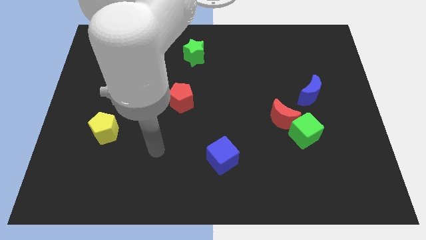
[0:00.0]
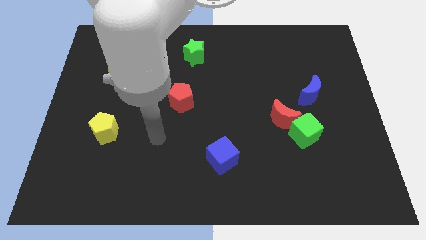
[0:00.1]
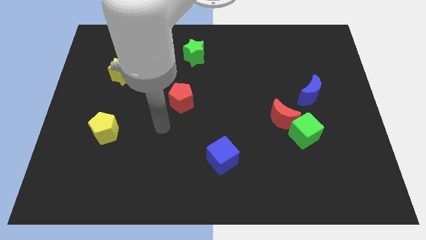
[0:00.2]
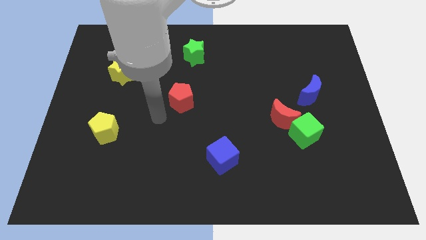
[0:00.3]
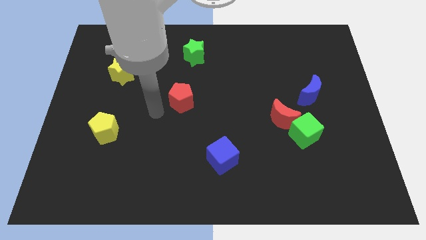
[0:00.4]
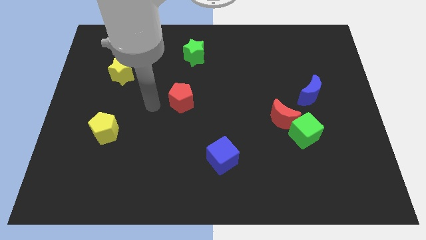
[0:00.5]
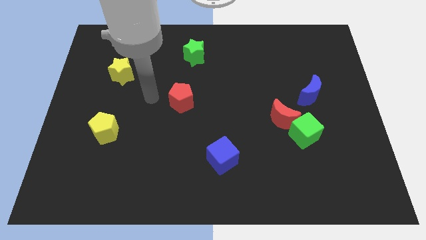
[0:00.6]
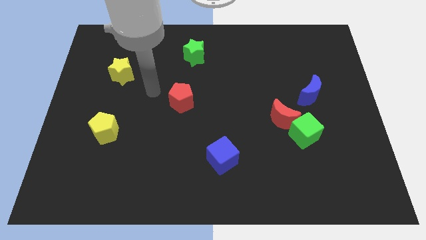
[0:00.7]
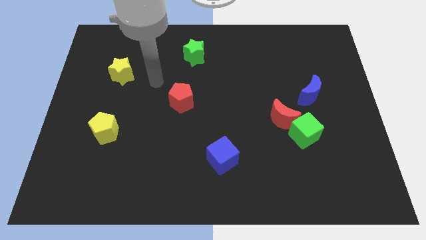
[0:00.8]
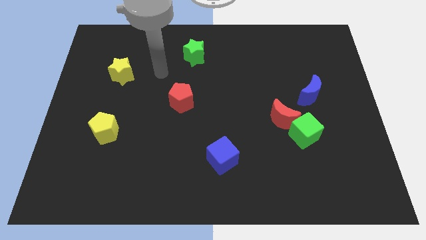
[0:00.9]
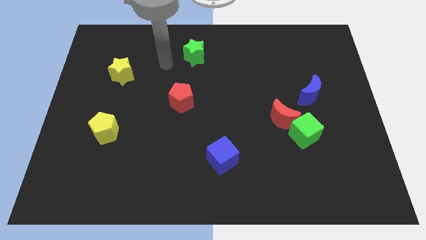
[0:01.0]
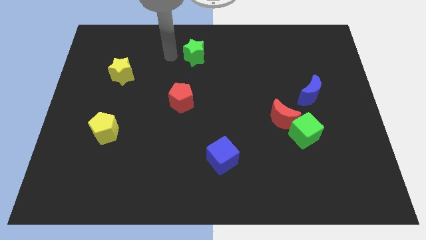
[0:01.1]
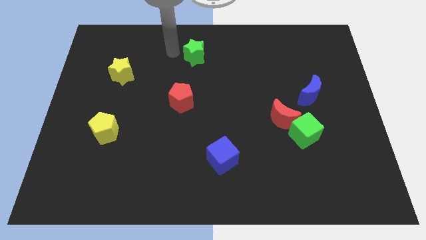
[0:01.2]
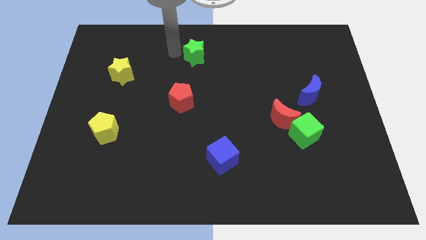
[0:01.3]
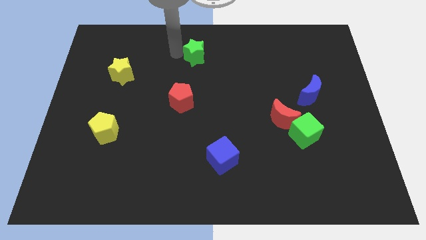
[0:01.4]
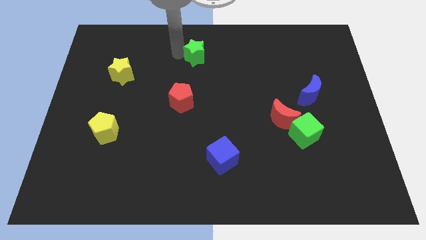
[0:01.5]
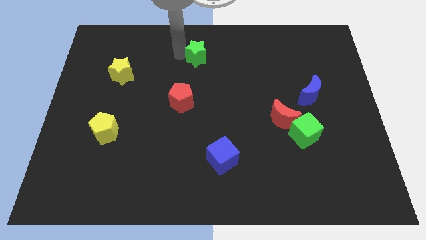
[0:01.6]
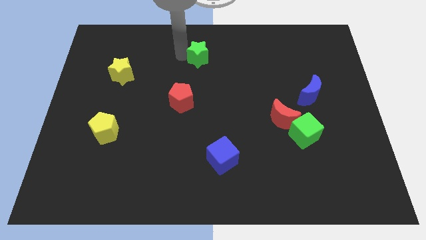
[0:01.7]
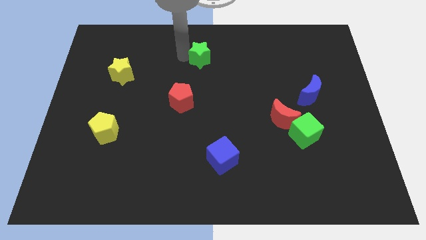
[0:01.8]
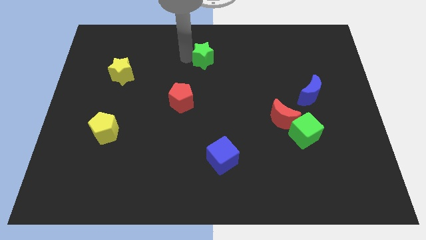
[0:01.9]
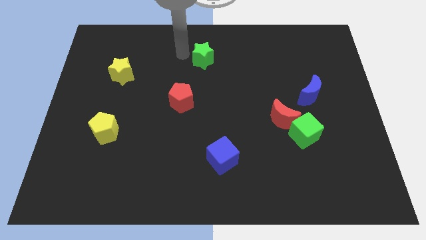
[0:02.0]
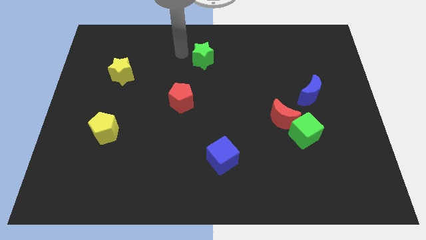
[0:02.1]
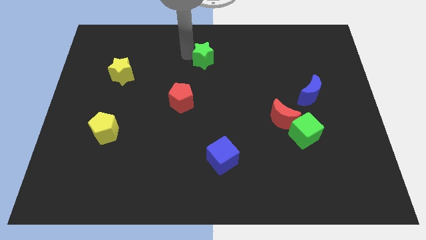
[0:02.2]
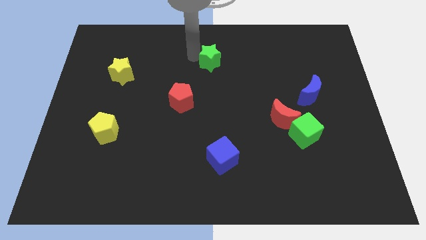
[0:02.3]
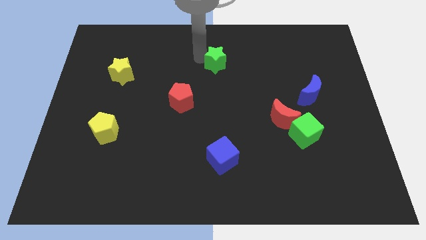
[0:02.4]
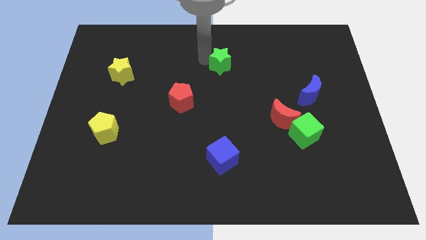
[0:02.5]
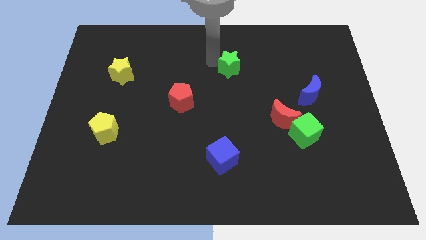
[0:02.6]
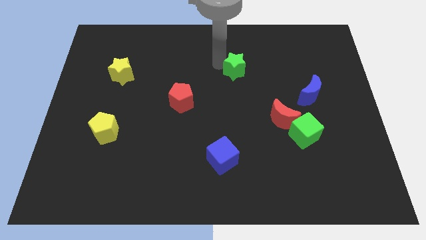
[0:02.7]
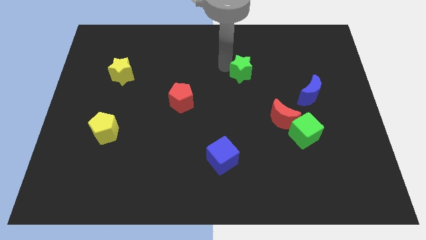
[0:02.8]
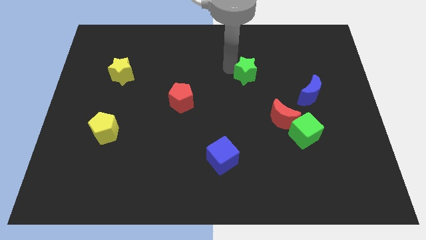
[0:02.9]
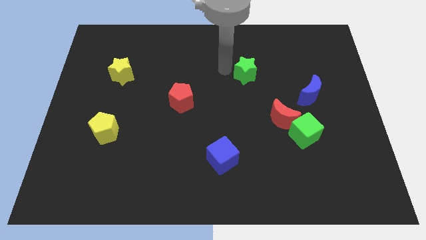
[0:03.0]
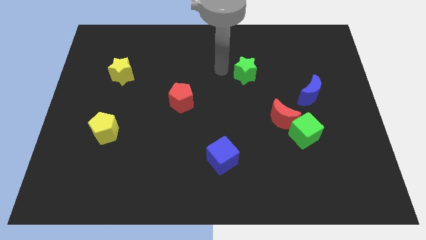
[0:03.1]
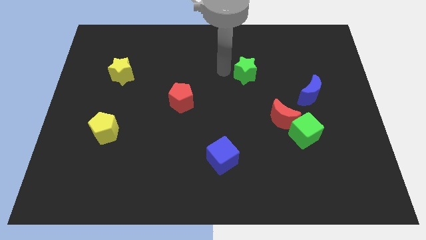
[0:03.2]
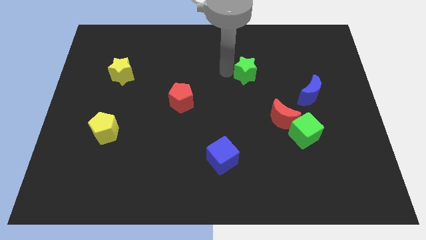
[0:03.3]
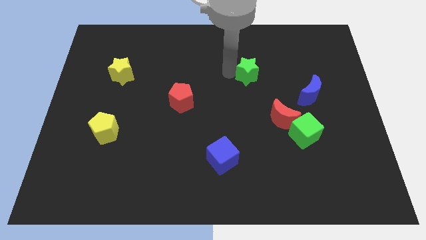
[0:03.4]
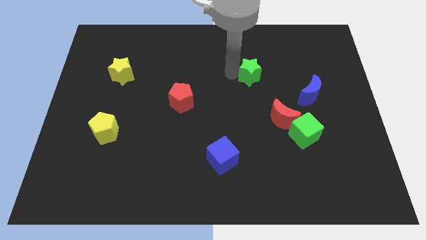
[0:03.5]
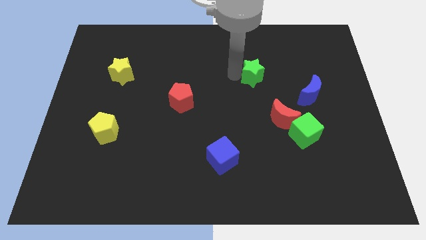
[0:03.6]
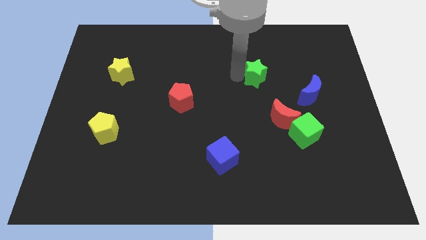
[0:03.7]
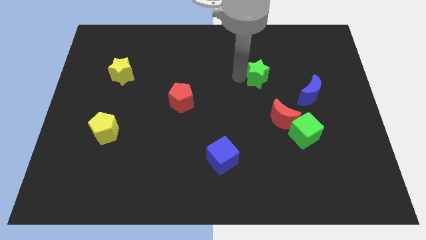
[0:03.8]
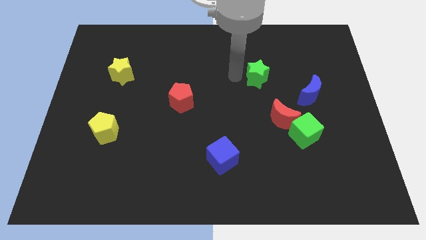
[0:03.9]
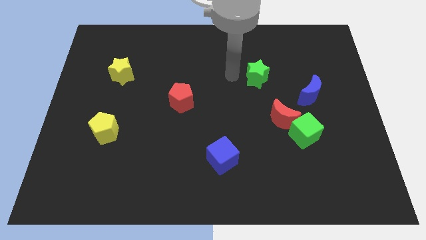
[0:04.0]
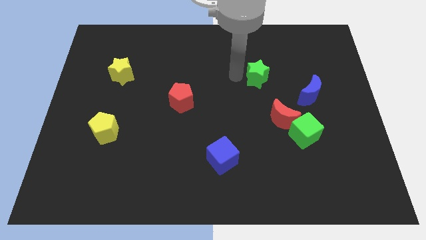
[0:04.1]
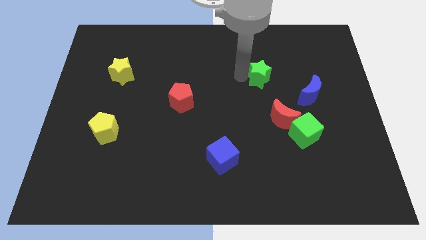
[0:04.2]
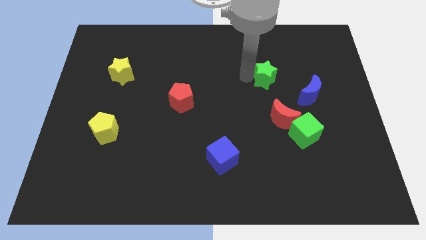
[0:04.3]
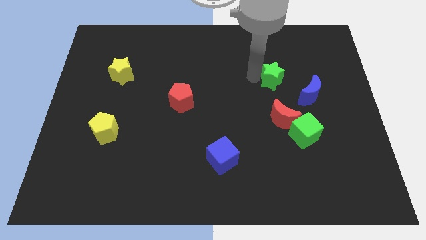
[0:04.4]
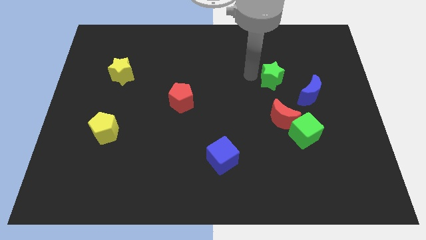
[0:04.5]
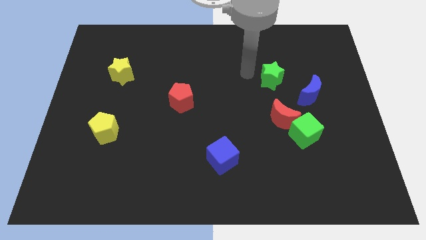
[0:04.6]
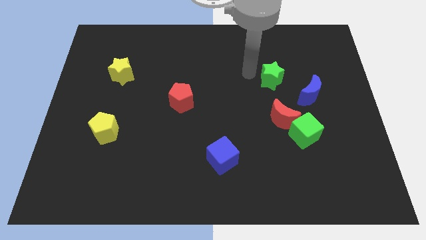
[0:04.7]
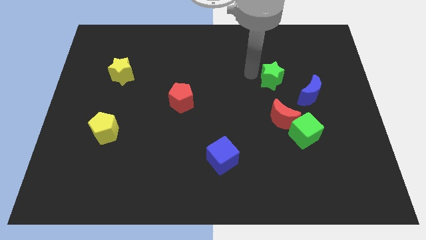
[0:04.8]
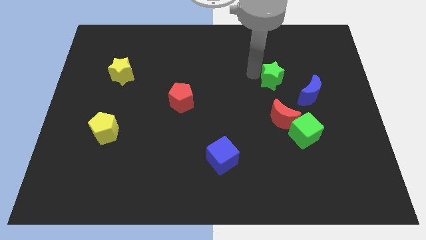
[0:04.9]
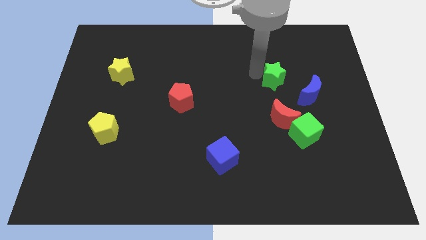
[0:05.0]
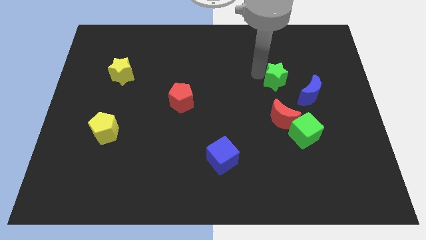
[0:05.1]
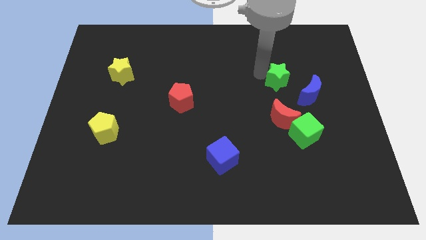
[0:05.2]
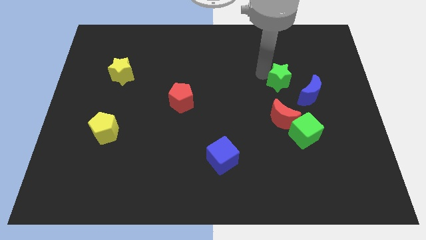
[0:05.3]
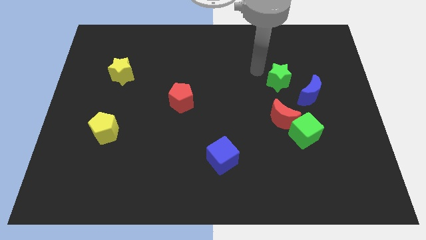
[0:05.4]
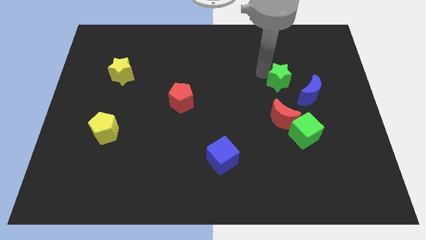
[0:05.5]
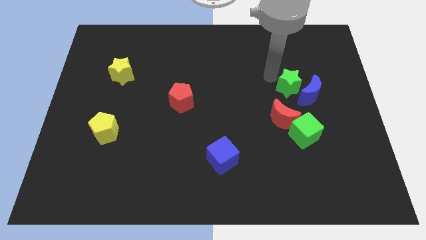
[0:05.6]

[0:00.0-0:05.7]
slide the green star towards the blue moon

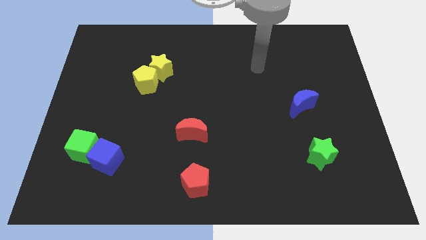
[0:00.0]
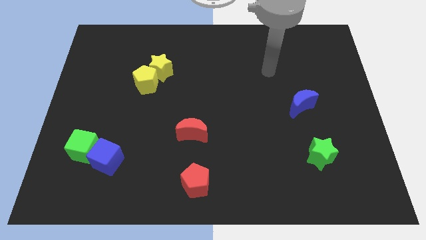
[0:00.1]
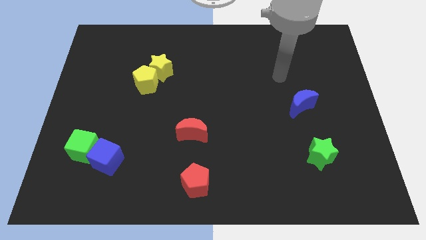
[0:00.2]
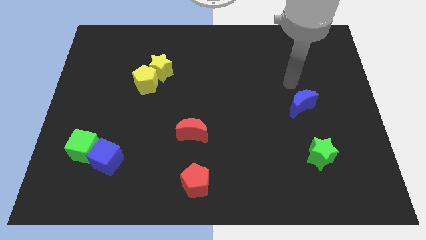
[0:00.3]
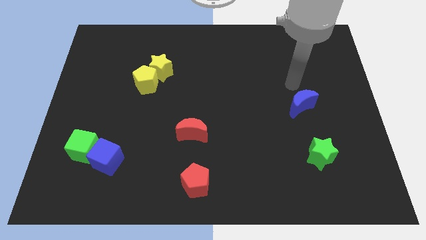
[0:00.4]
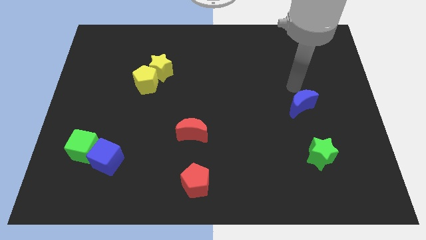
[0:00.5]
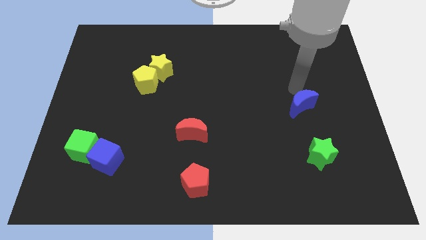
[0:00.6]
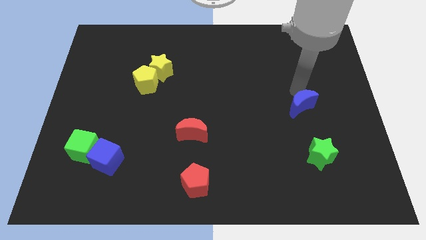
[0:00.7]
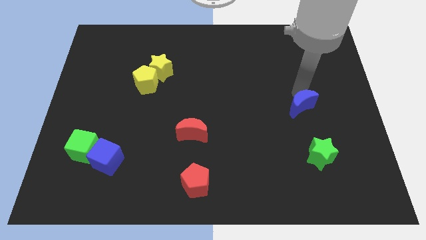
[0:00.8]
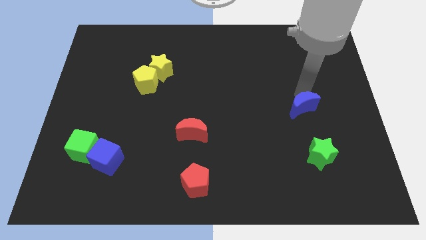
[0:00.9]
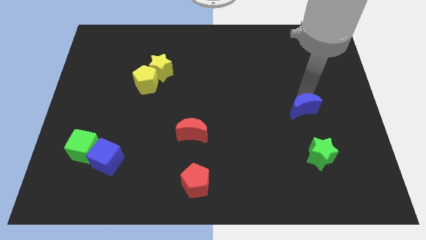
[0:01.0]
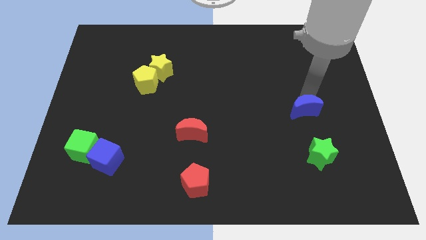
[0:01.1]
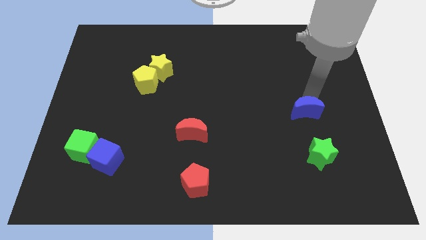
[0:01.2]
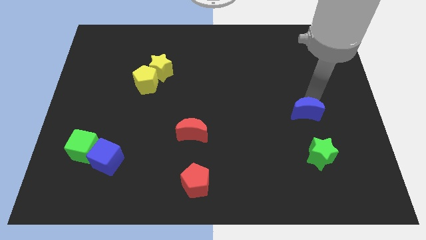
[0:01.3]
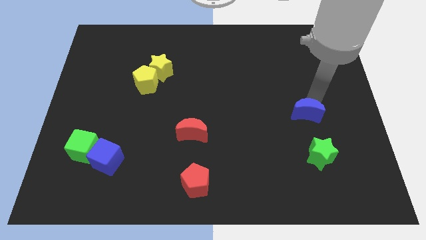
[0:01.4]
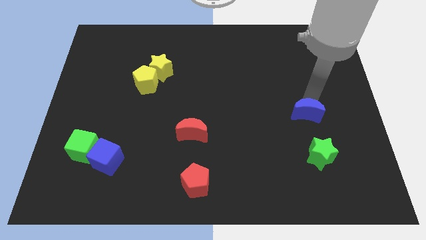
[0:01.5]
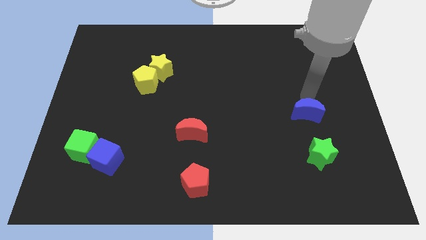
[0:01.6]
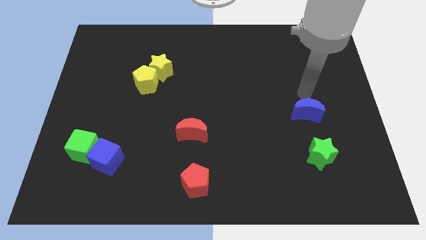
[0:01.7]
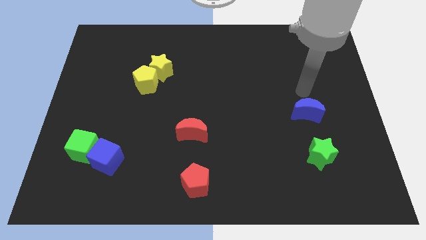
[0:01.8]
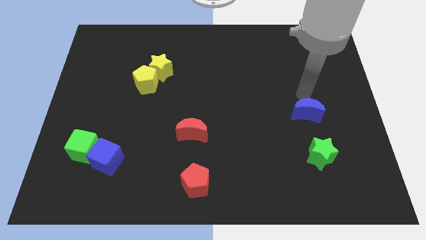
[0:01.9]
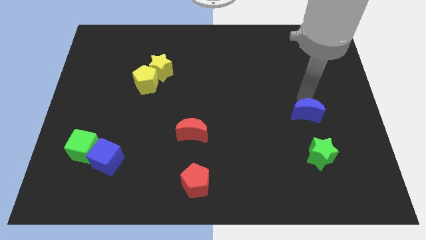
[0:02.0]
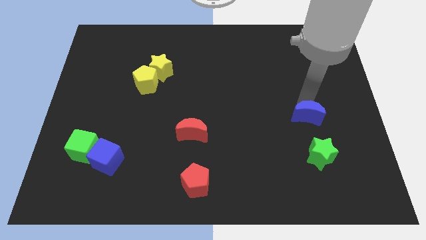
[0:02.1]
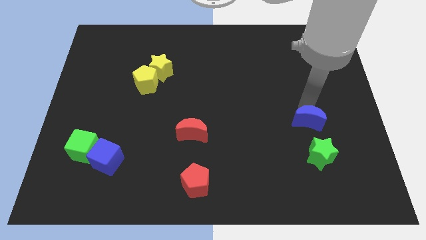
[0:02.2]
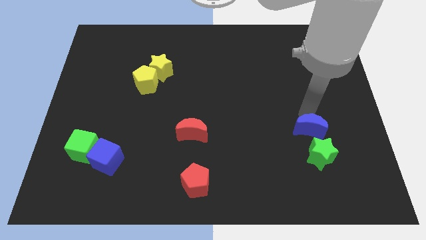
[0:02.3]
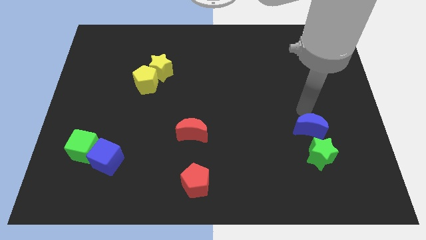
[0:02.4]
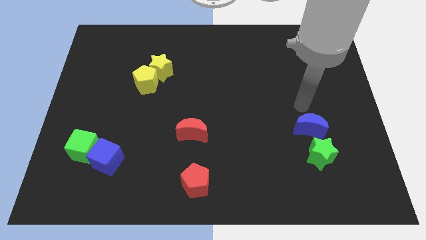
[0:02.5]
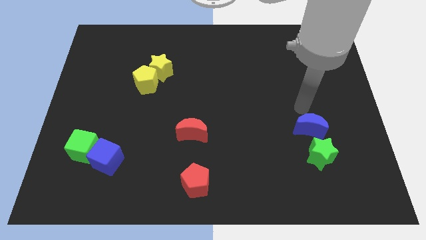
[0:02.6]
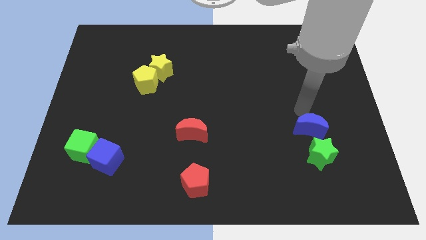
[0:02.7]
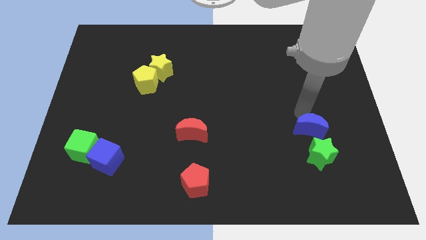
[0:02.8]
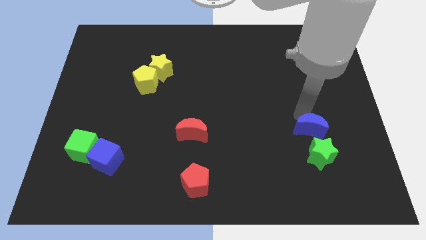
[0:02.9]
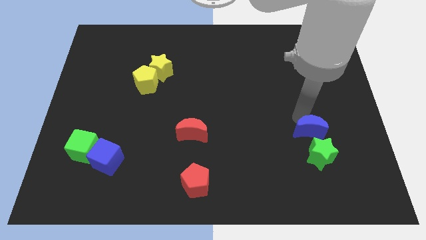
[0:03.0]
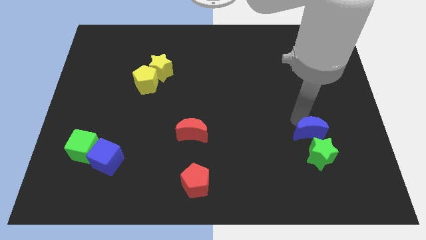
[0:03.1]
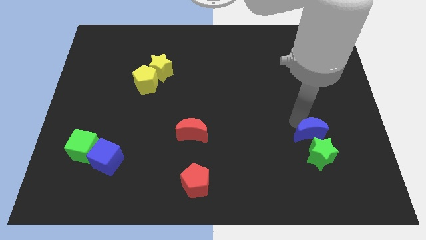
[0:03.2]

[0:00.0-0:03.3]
push the blue moon close to the green star
